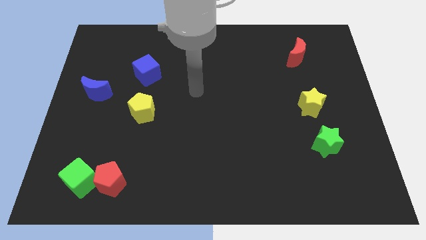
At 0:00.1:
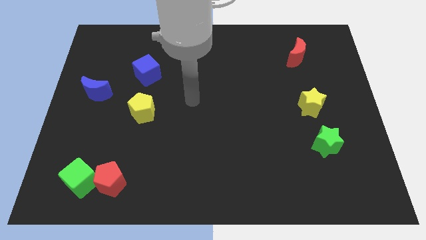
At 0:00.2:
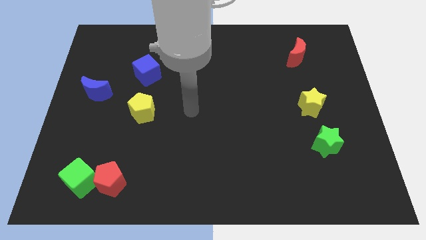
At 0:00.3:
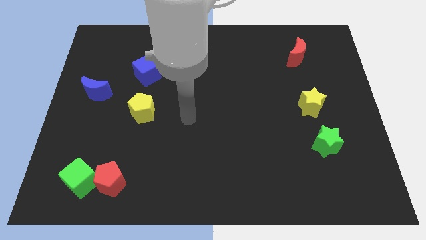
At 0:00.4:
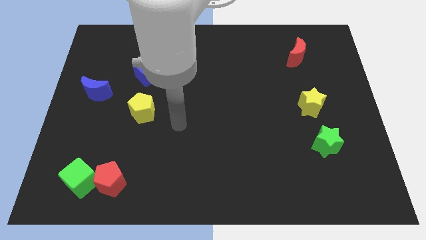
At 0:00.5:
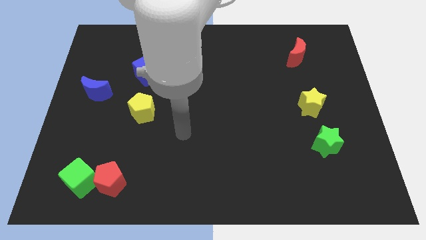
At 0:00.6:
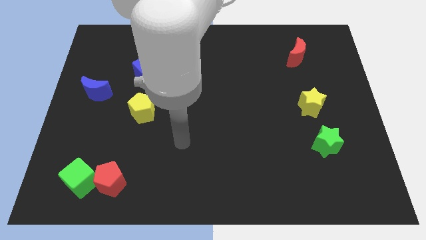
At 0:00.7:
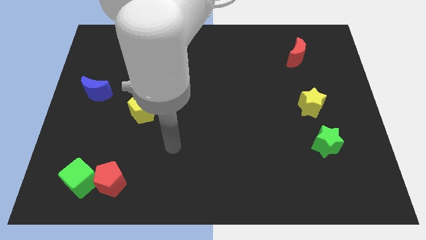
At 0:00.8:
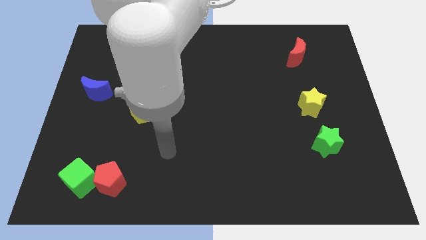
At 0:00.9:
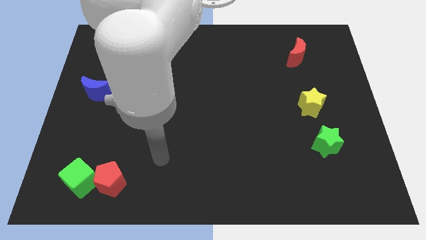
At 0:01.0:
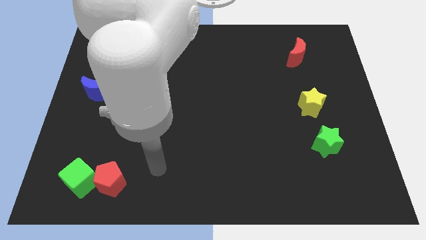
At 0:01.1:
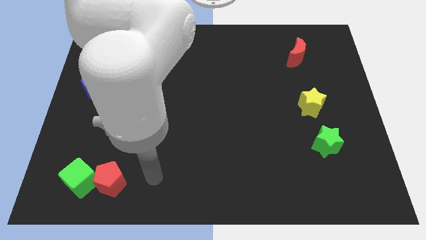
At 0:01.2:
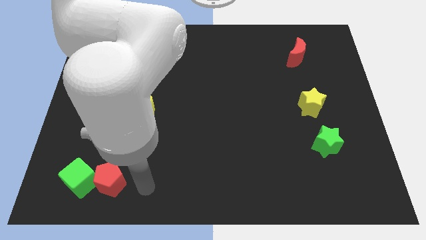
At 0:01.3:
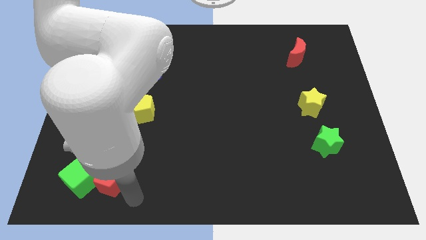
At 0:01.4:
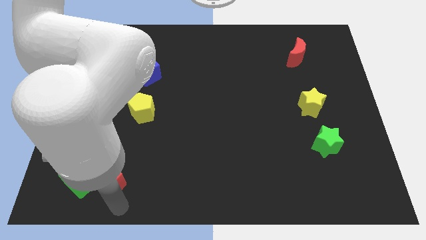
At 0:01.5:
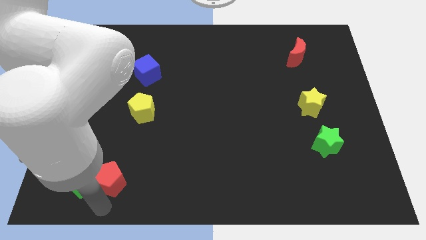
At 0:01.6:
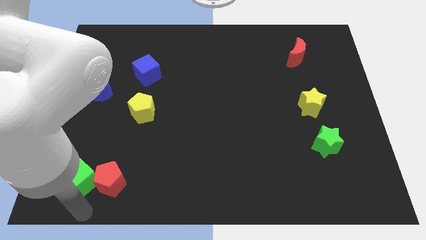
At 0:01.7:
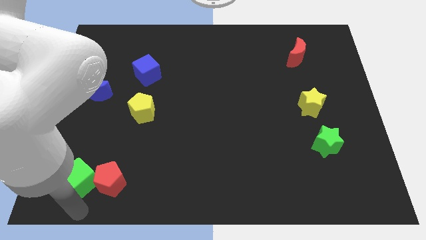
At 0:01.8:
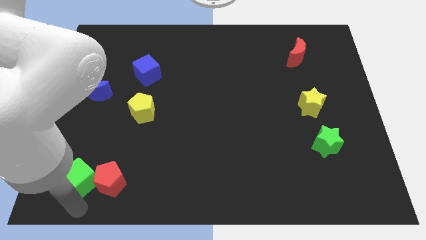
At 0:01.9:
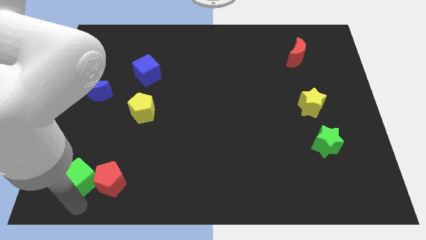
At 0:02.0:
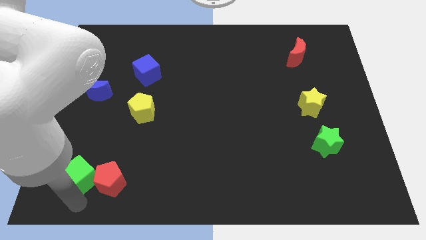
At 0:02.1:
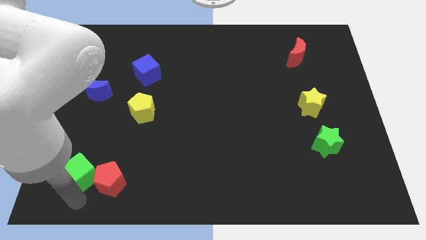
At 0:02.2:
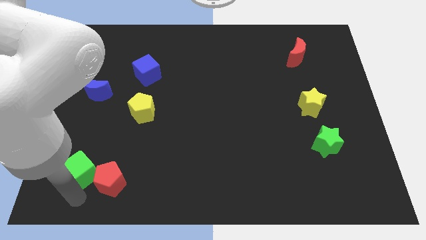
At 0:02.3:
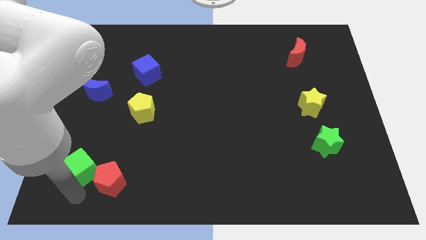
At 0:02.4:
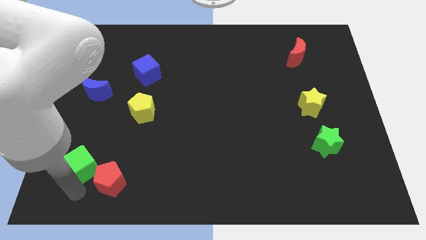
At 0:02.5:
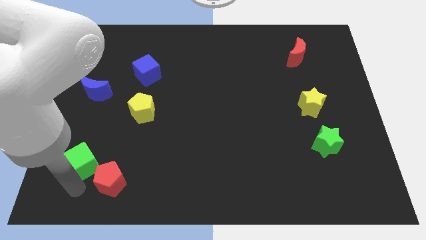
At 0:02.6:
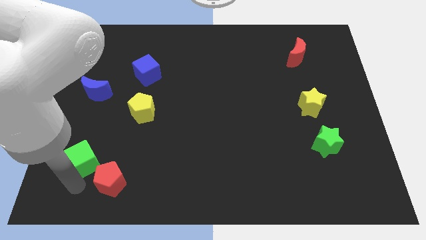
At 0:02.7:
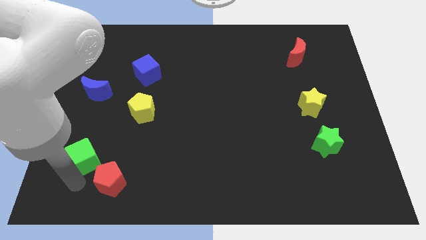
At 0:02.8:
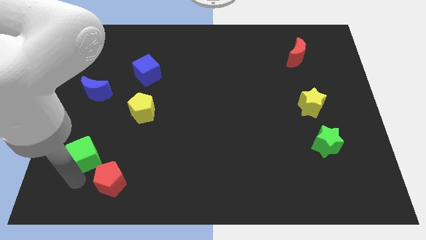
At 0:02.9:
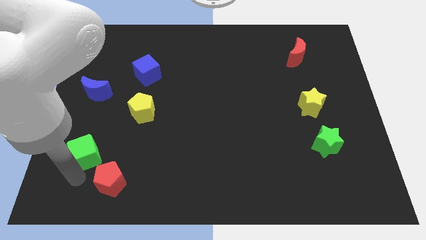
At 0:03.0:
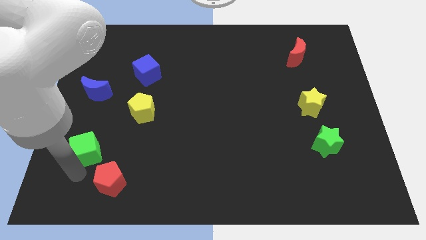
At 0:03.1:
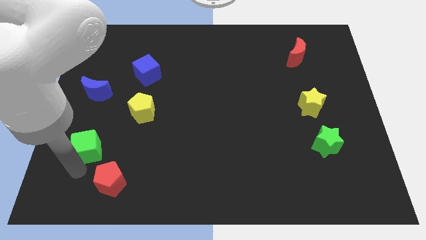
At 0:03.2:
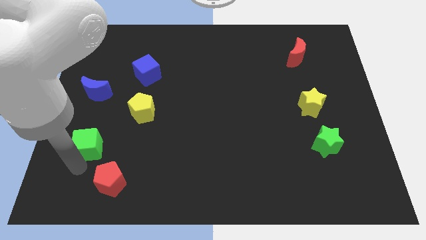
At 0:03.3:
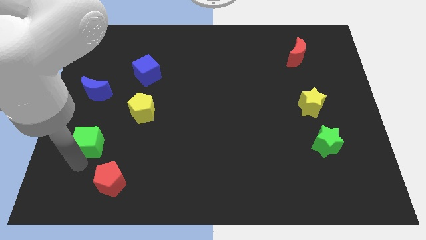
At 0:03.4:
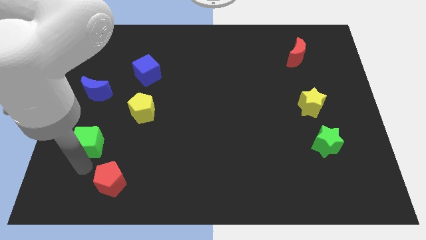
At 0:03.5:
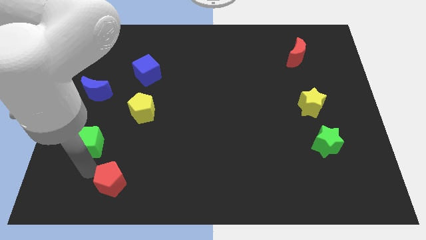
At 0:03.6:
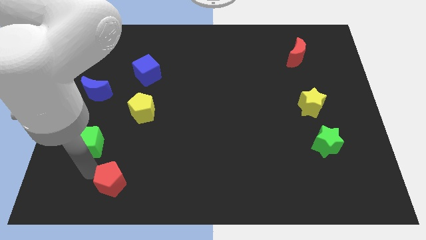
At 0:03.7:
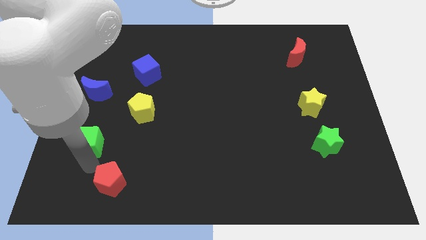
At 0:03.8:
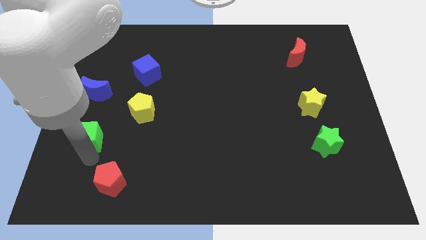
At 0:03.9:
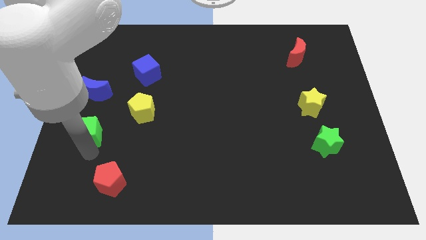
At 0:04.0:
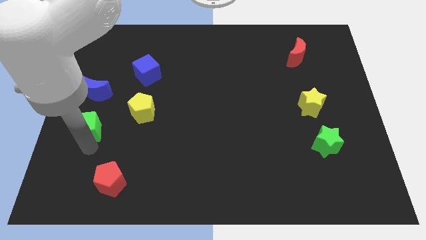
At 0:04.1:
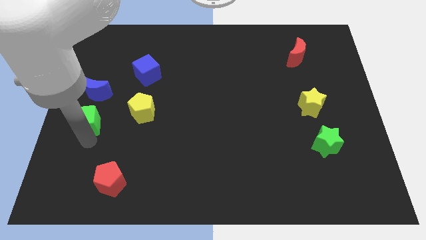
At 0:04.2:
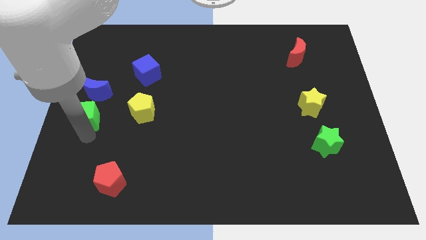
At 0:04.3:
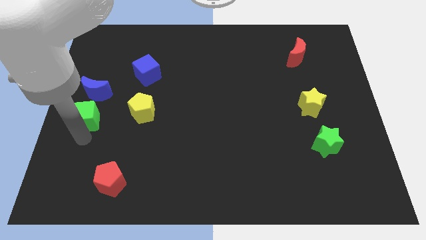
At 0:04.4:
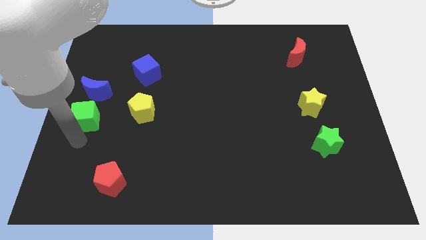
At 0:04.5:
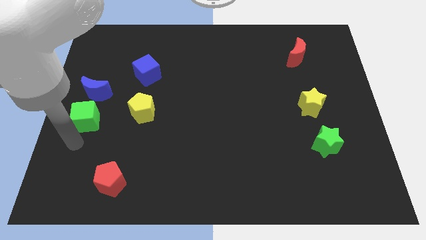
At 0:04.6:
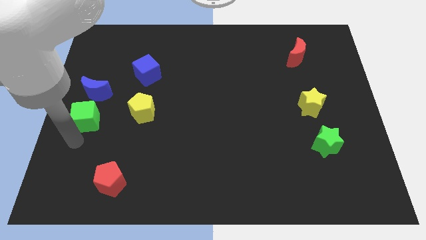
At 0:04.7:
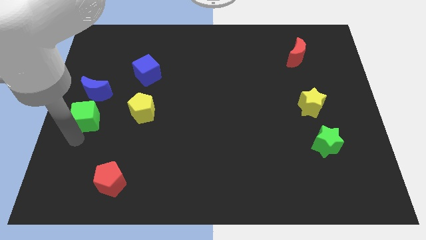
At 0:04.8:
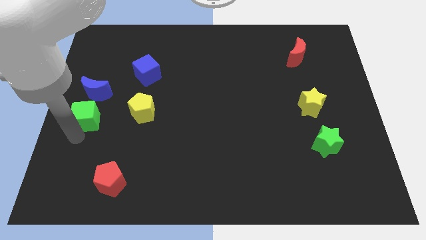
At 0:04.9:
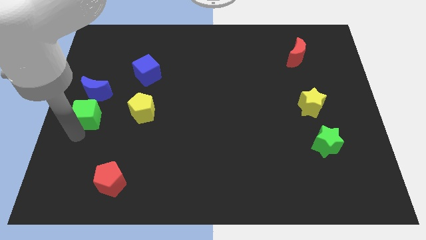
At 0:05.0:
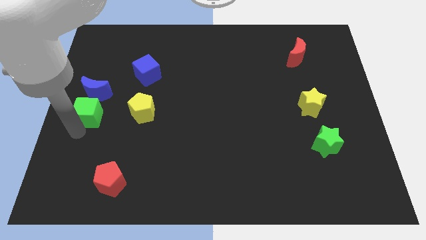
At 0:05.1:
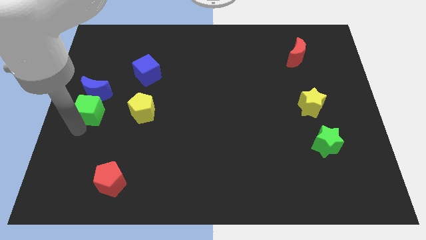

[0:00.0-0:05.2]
move the green cube next to the blue moon

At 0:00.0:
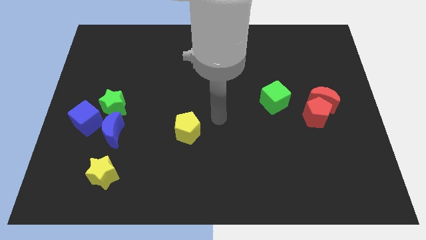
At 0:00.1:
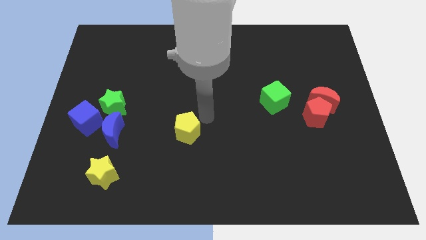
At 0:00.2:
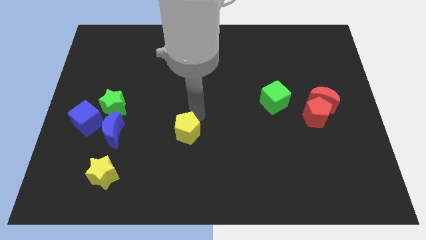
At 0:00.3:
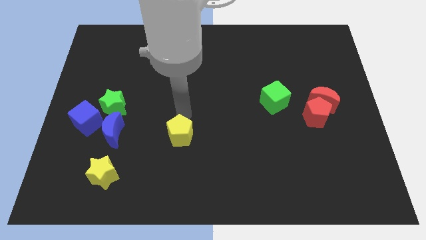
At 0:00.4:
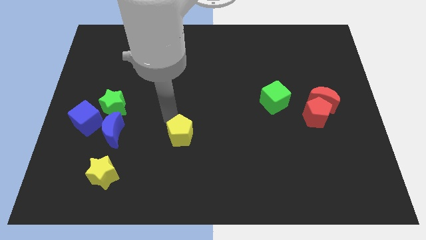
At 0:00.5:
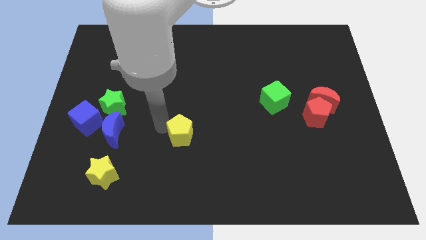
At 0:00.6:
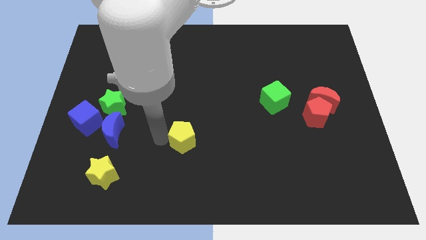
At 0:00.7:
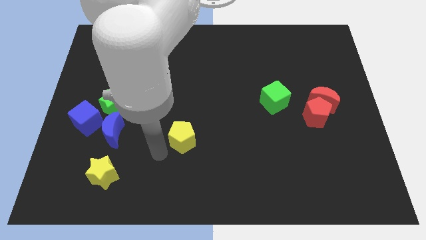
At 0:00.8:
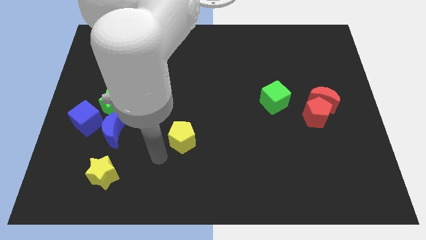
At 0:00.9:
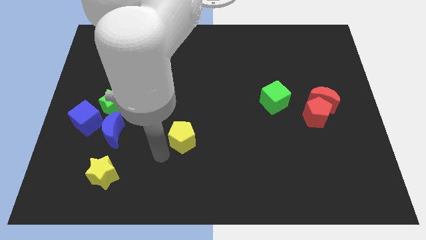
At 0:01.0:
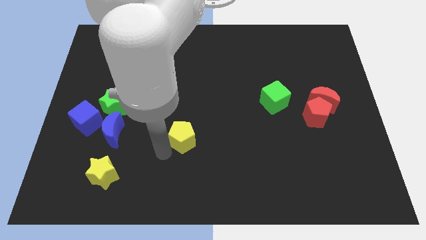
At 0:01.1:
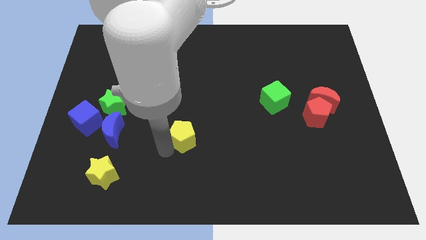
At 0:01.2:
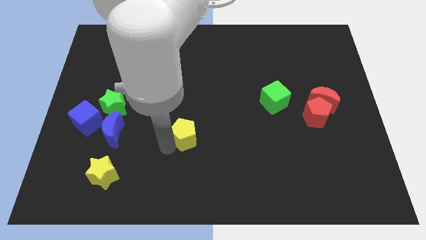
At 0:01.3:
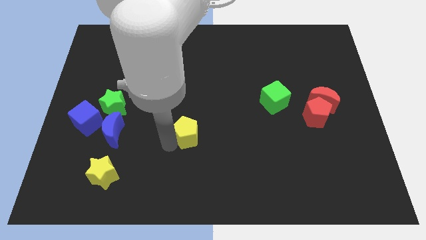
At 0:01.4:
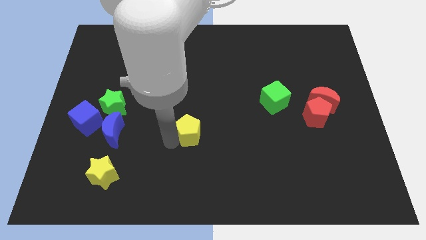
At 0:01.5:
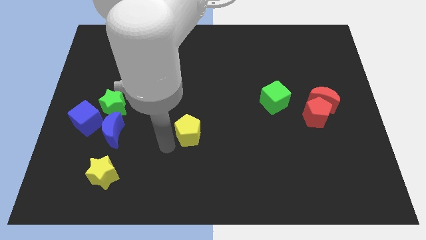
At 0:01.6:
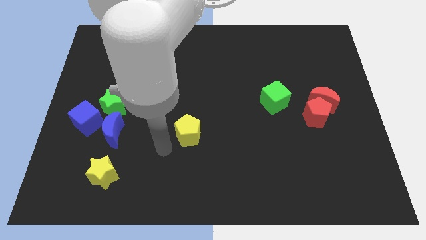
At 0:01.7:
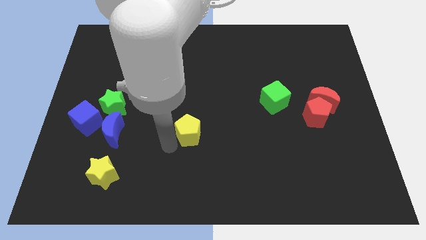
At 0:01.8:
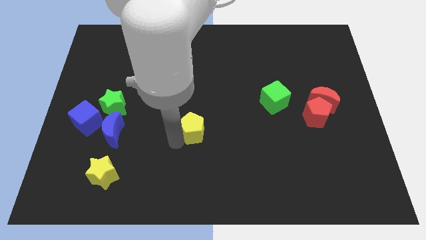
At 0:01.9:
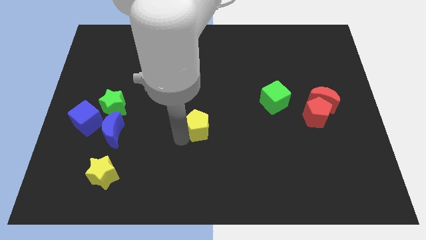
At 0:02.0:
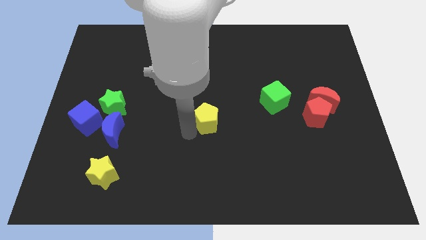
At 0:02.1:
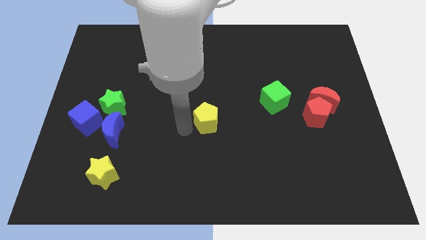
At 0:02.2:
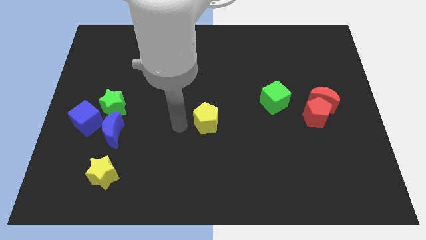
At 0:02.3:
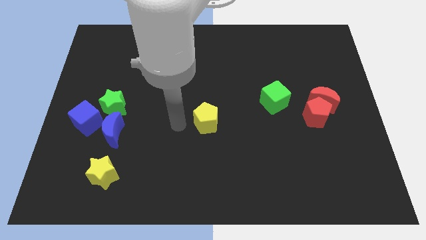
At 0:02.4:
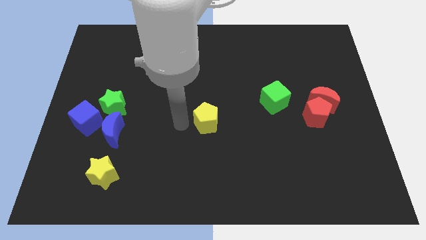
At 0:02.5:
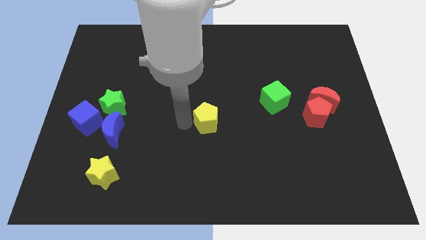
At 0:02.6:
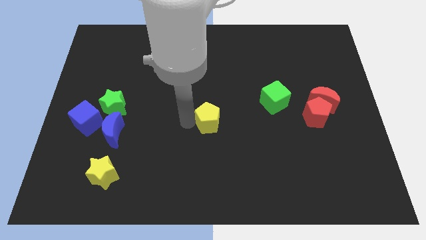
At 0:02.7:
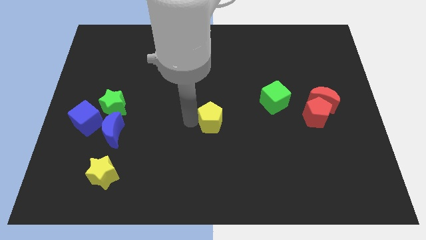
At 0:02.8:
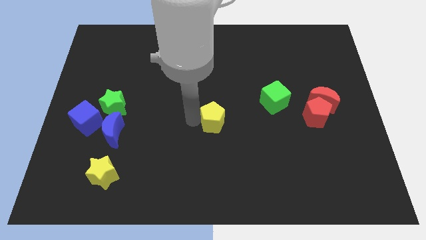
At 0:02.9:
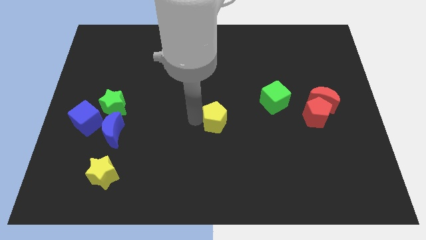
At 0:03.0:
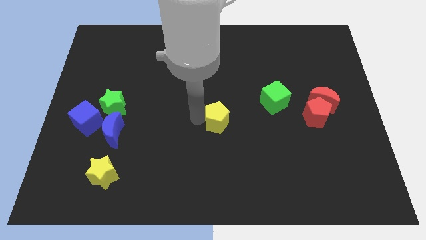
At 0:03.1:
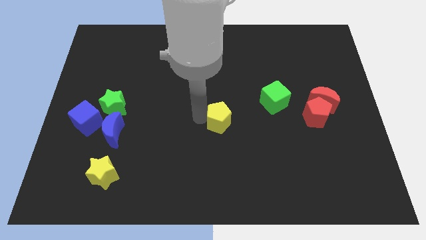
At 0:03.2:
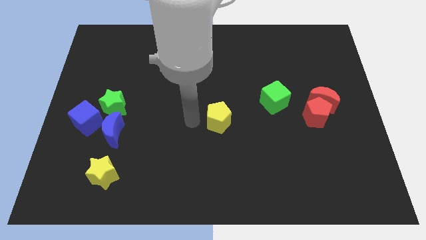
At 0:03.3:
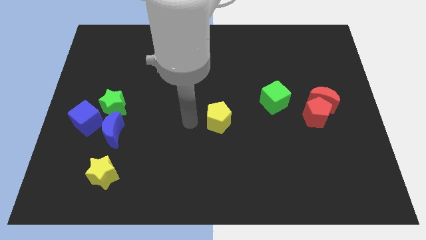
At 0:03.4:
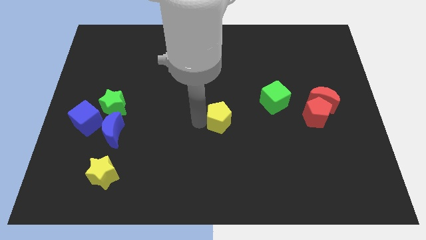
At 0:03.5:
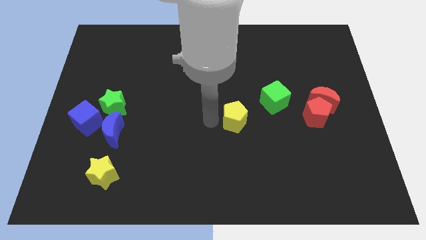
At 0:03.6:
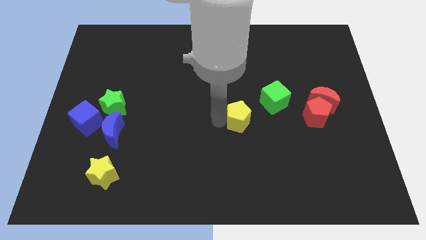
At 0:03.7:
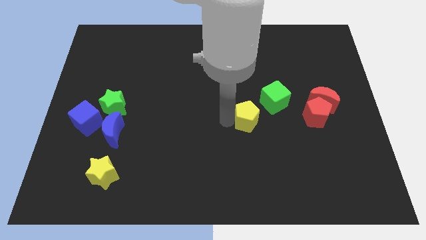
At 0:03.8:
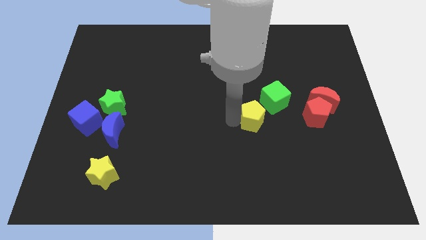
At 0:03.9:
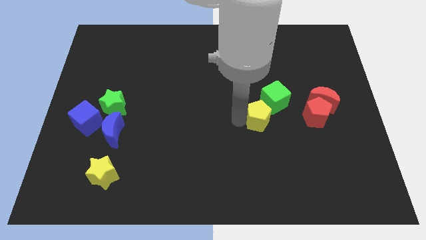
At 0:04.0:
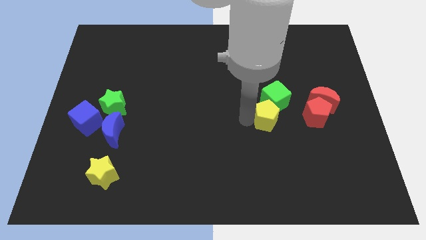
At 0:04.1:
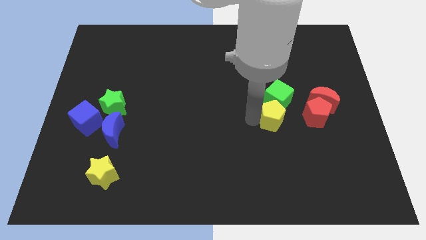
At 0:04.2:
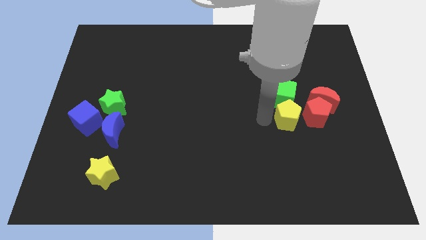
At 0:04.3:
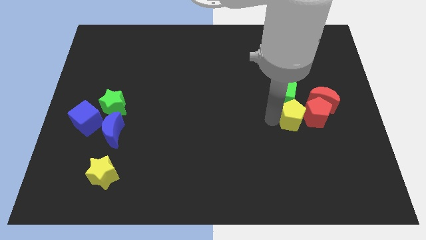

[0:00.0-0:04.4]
push the yellow pentagon towards the red pentagon
